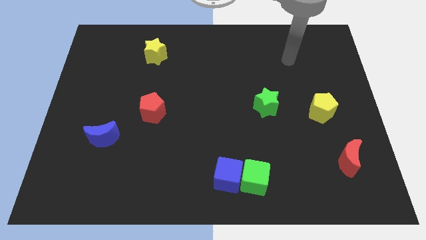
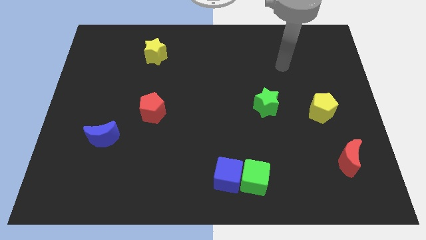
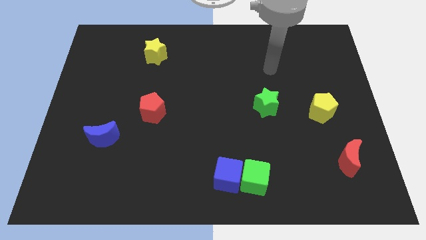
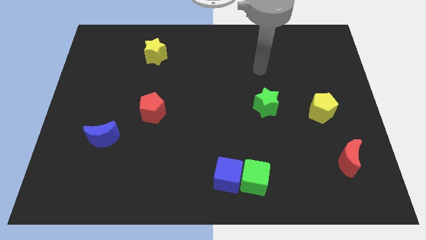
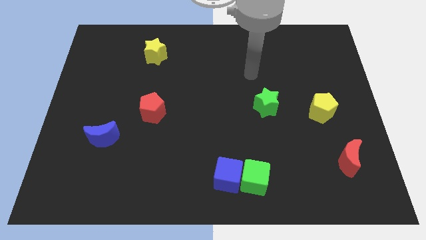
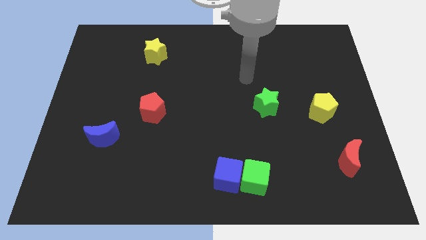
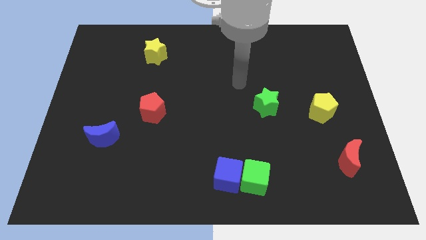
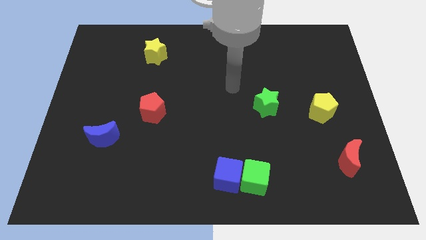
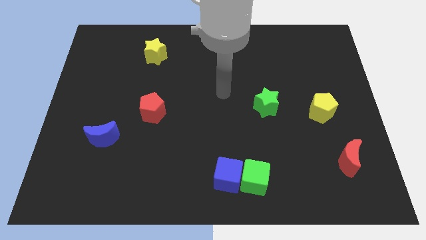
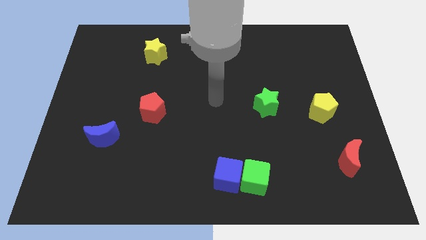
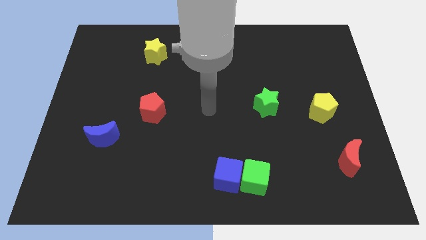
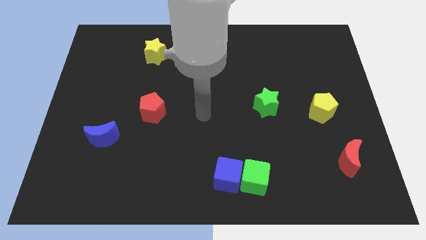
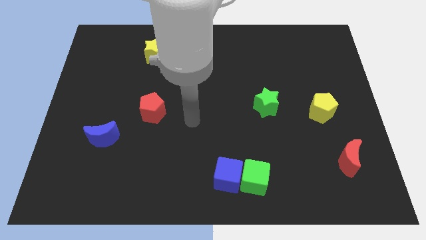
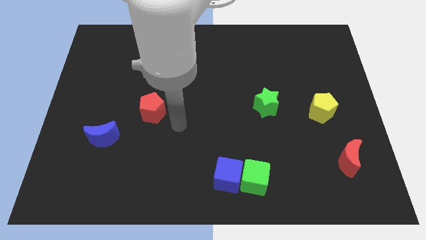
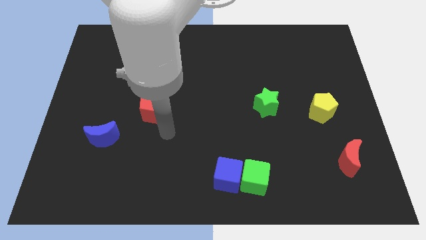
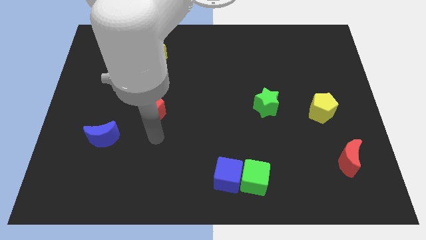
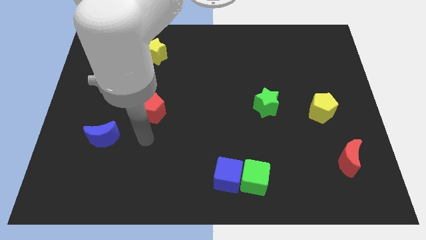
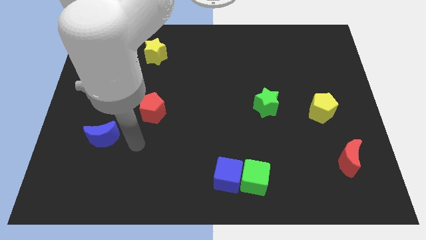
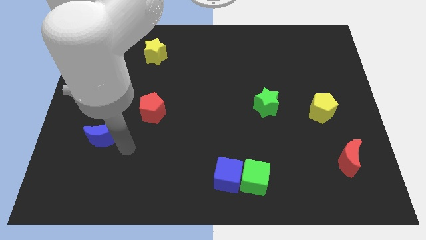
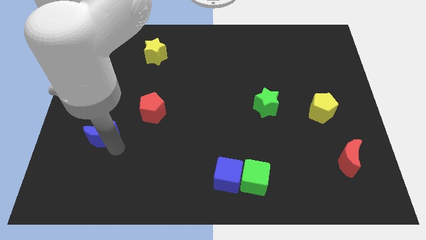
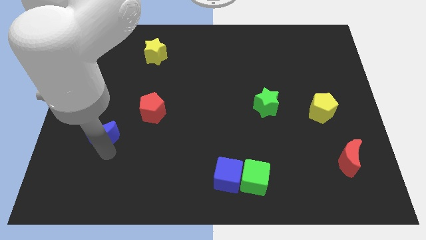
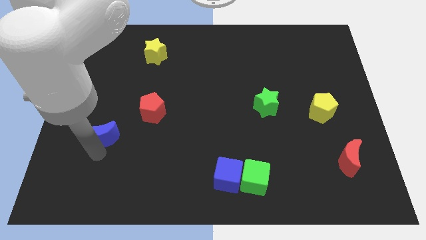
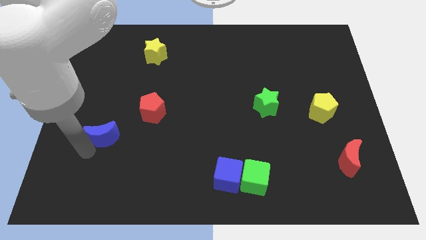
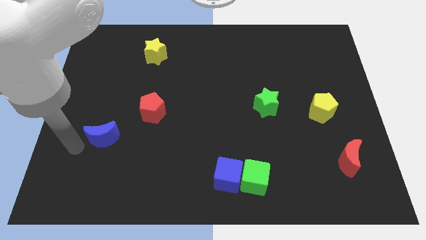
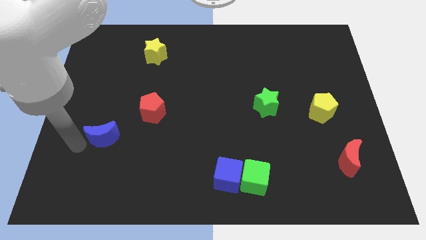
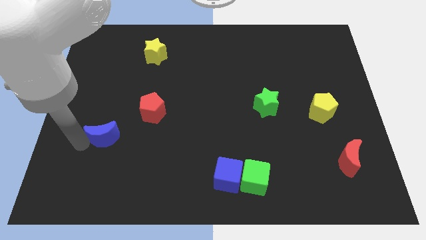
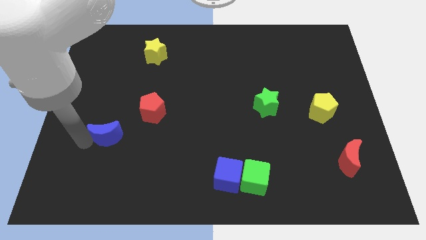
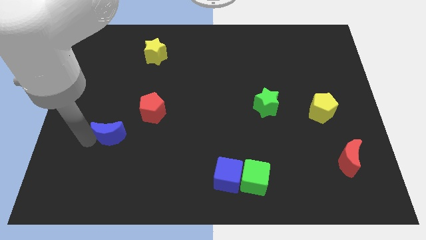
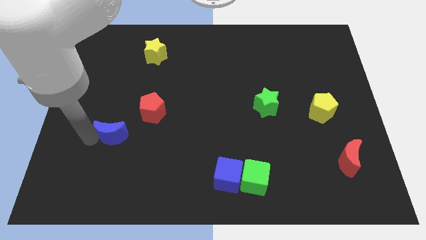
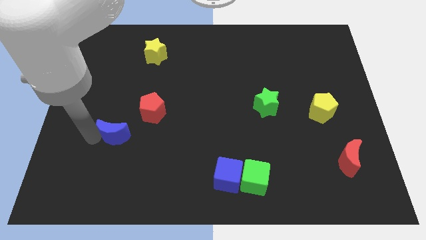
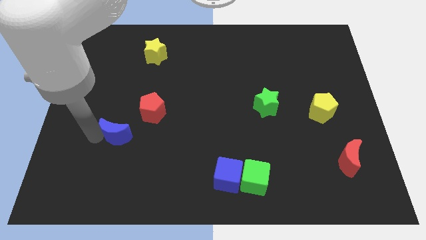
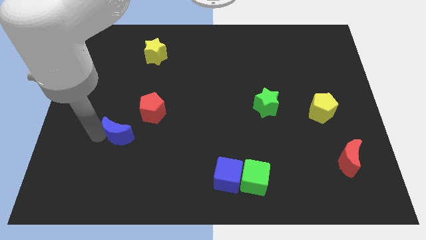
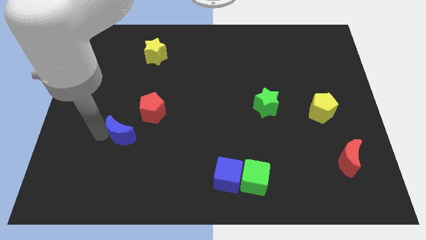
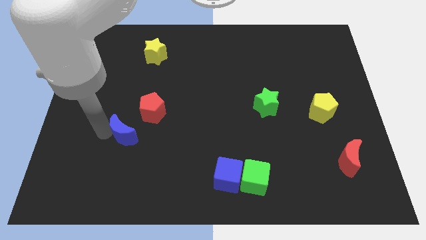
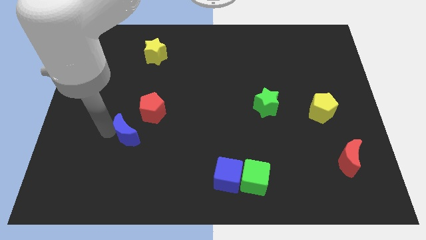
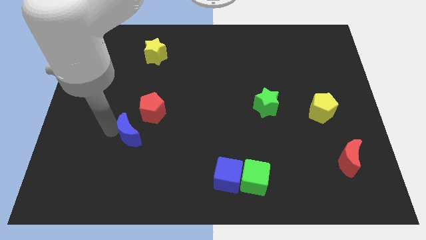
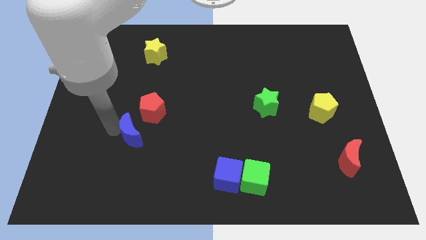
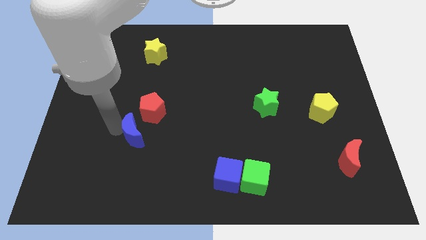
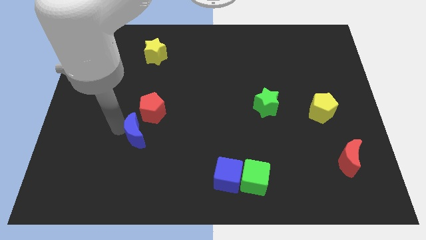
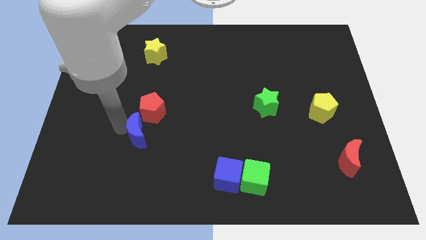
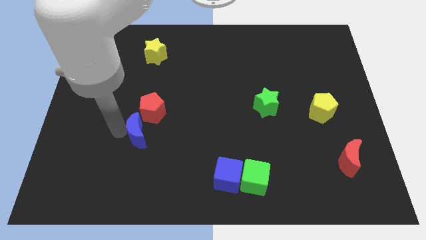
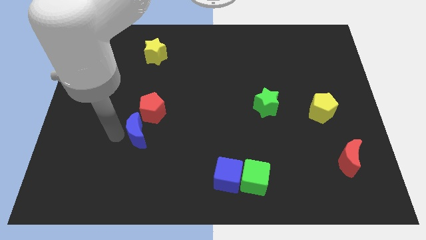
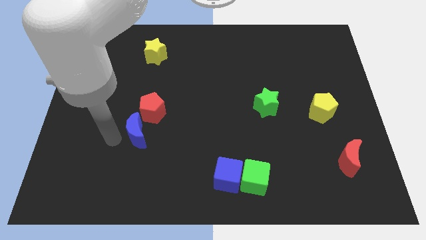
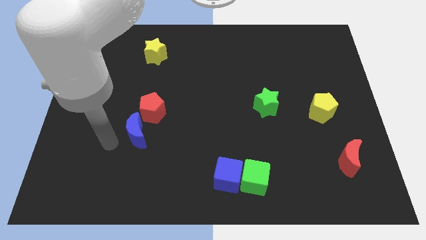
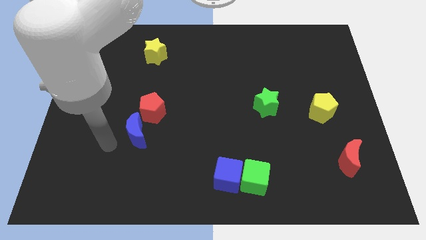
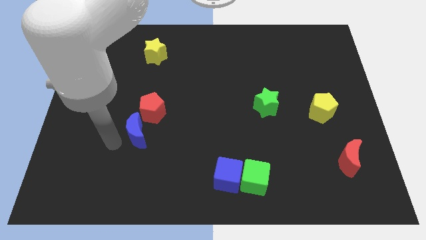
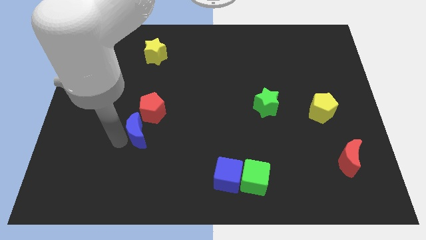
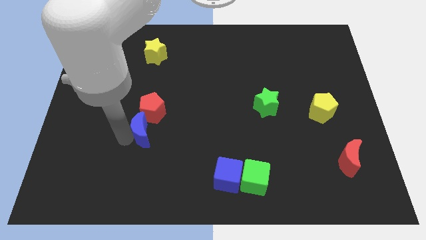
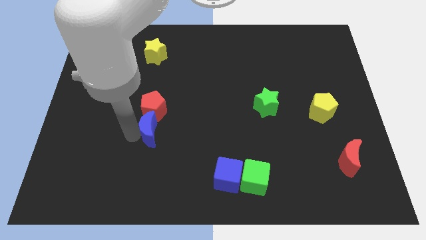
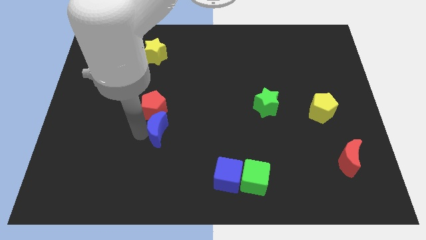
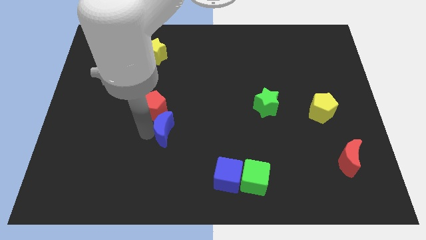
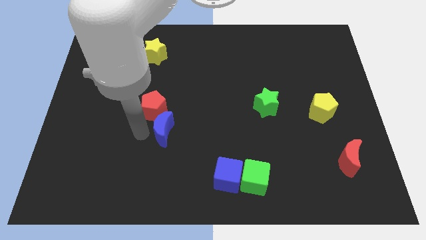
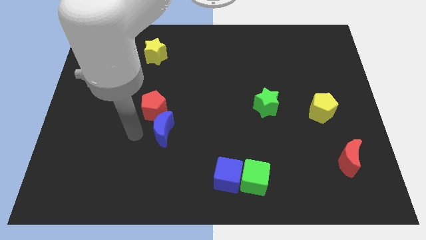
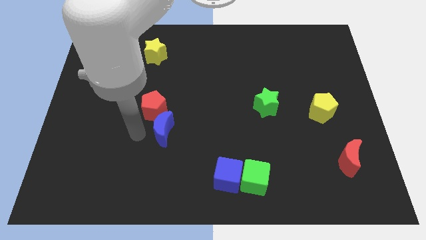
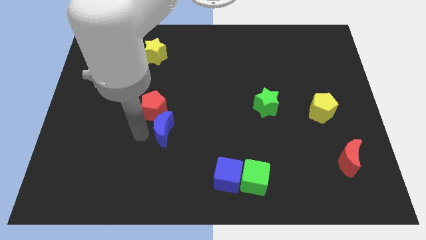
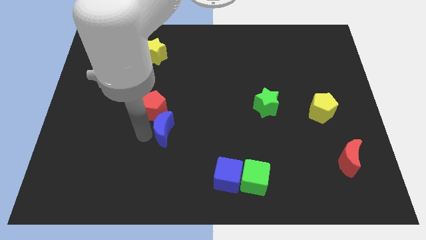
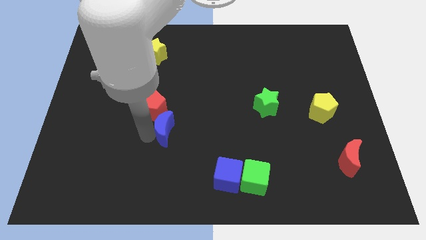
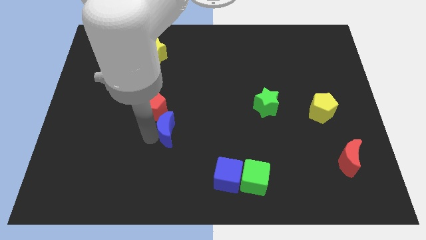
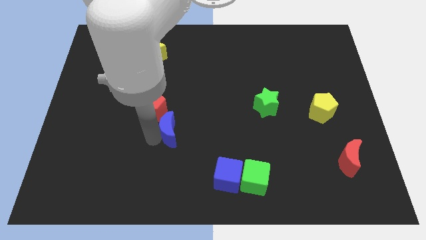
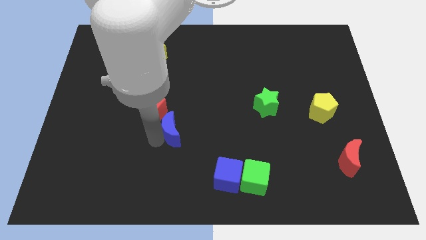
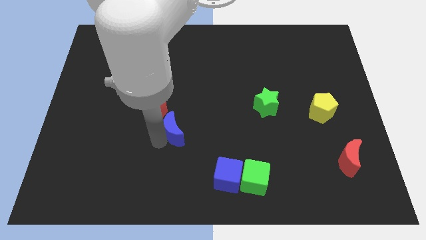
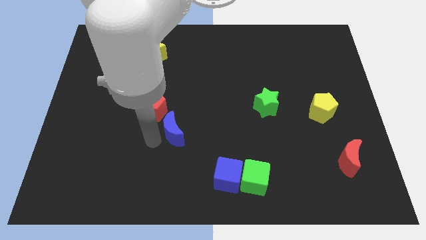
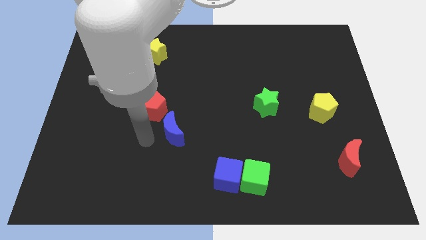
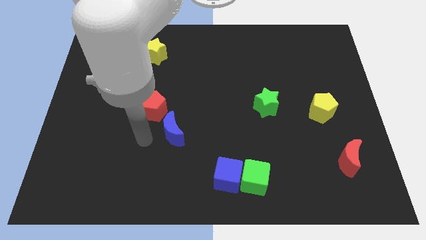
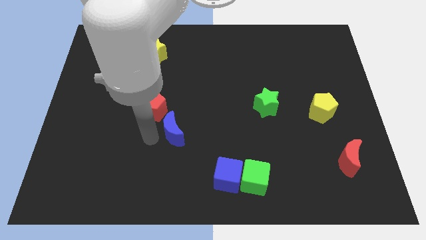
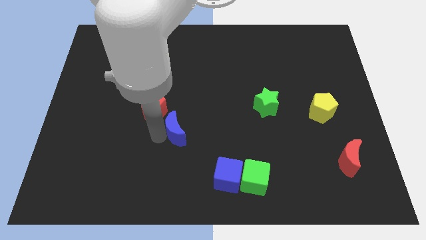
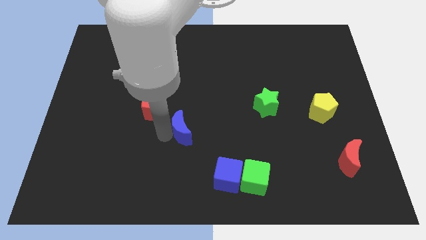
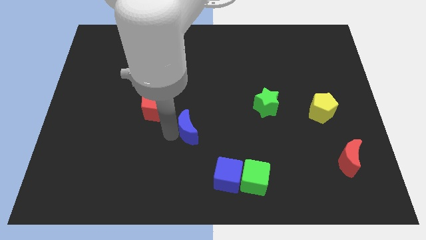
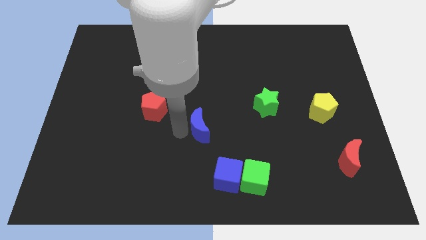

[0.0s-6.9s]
move the blue moon to the right

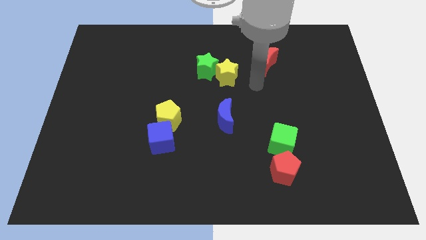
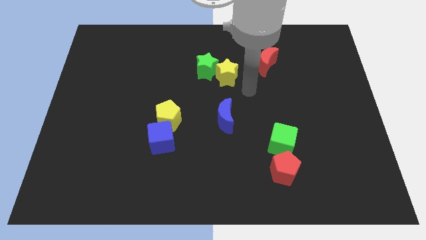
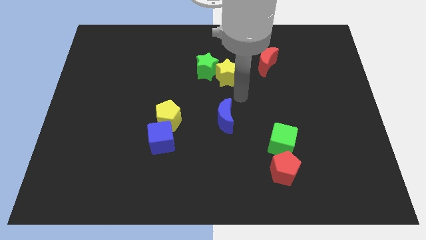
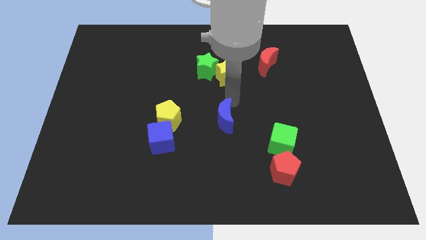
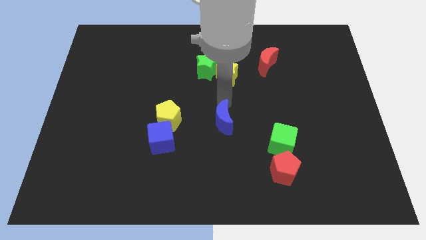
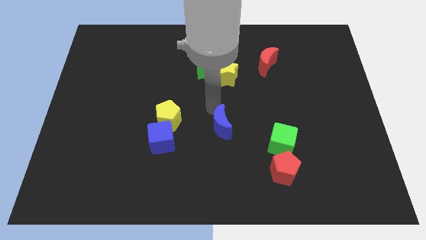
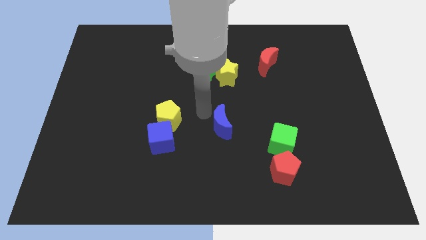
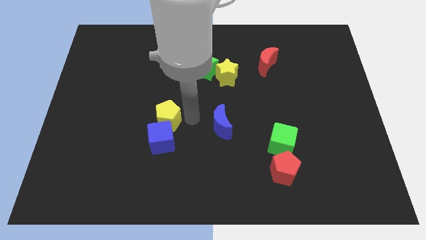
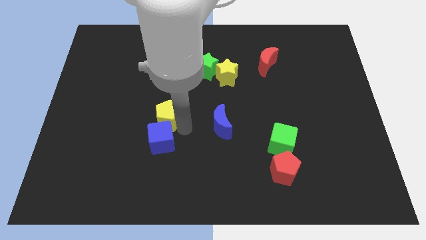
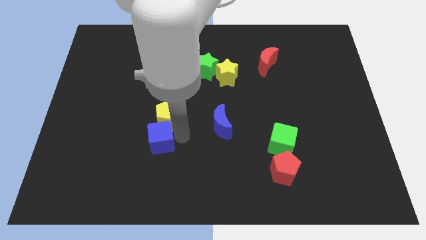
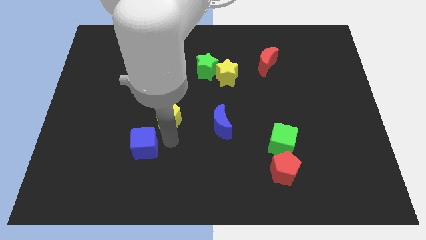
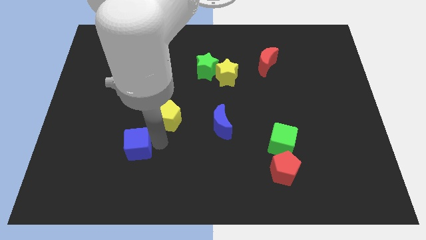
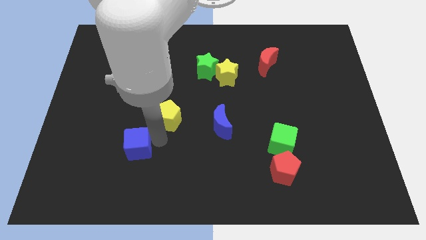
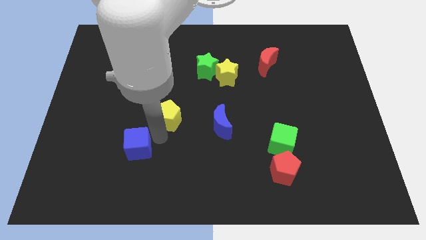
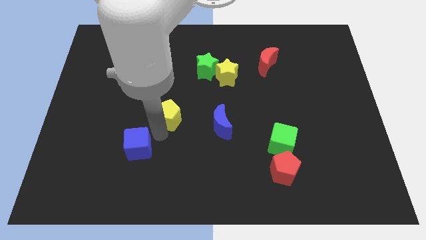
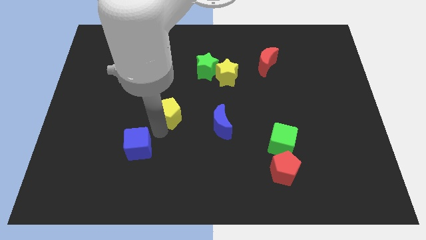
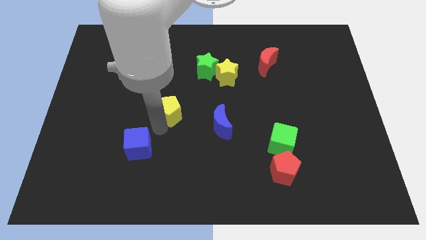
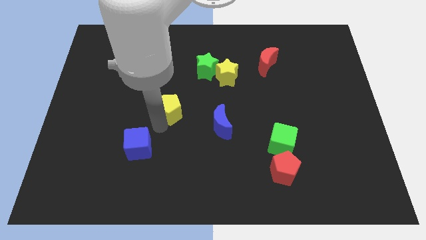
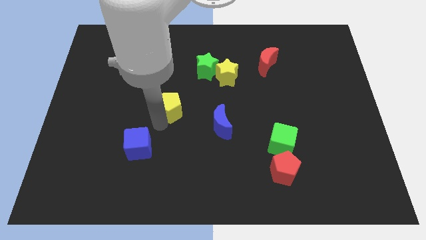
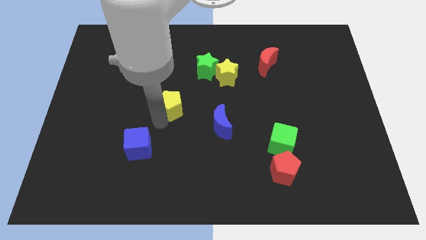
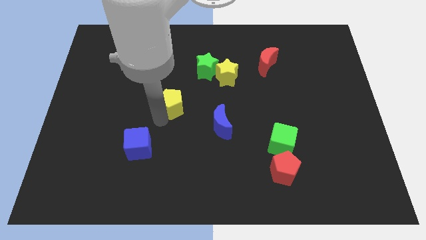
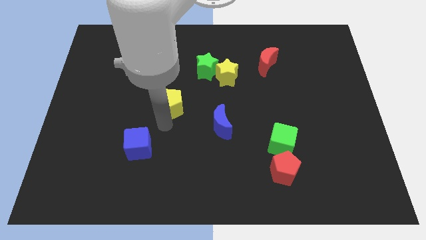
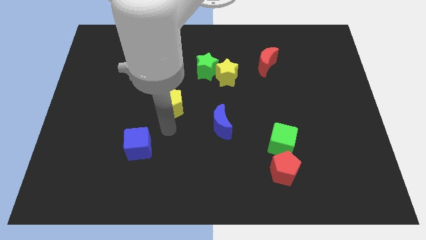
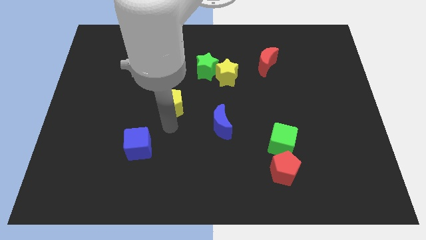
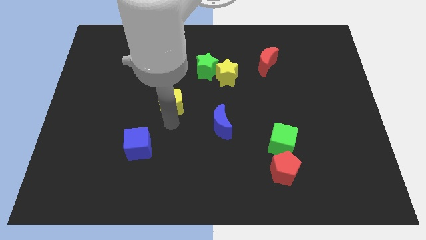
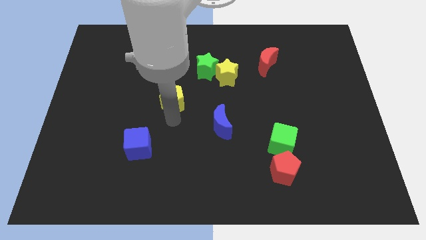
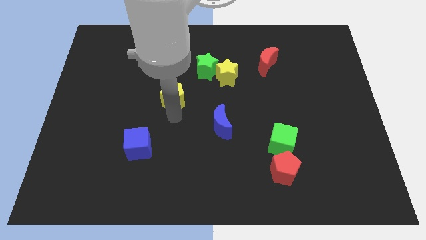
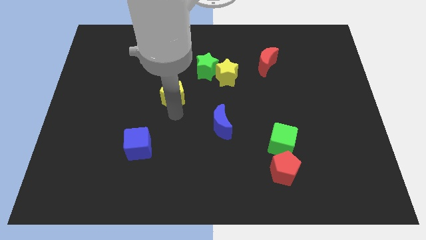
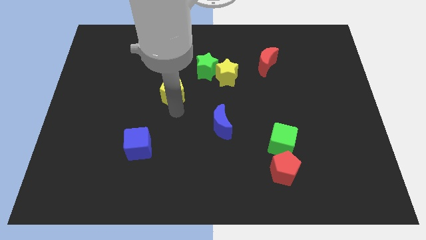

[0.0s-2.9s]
slide the yellow pentagon a bit upwards
